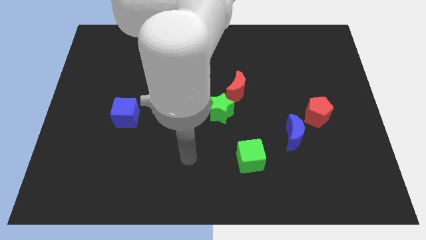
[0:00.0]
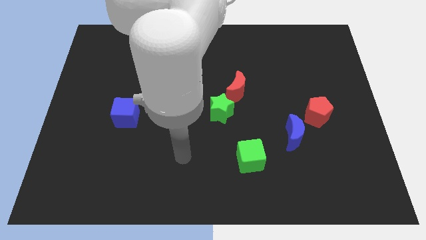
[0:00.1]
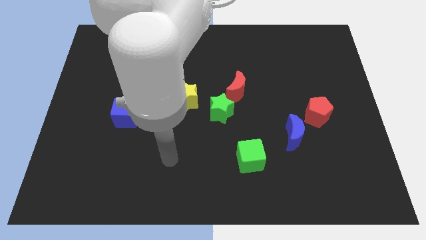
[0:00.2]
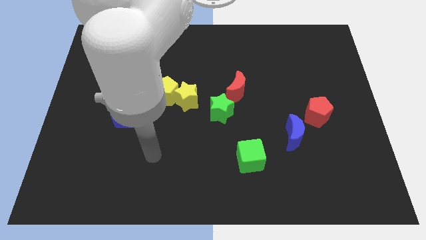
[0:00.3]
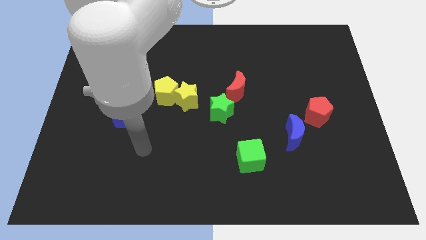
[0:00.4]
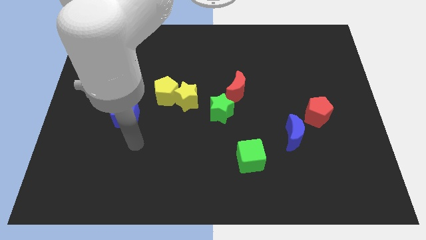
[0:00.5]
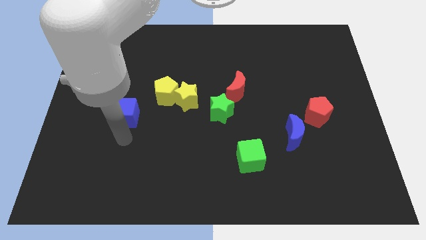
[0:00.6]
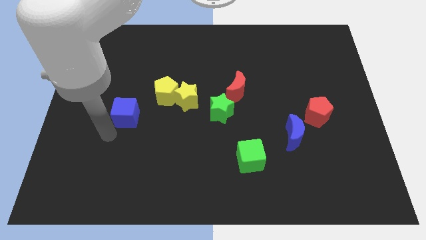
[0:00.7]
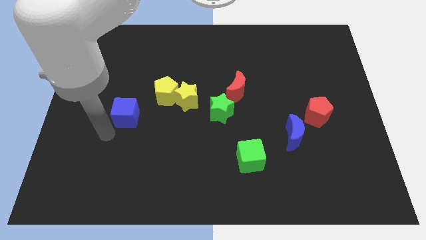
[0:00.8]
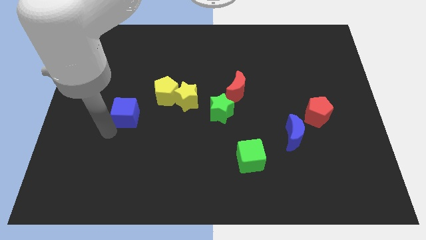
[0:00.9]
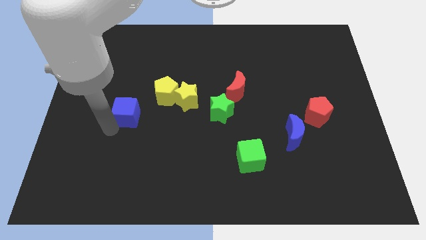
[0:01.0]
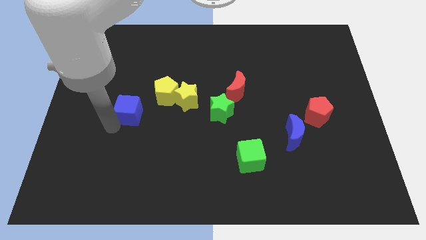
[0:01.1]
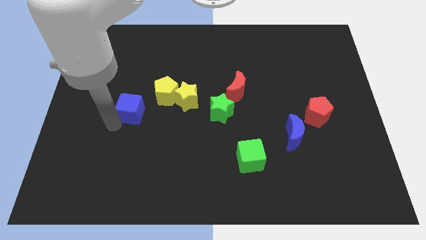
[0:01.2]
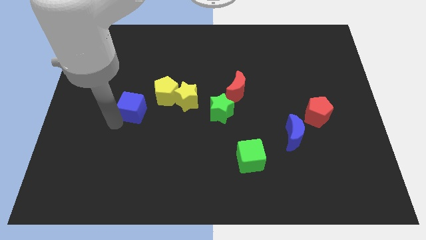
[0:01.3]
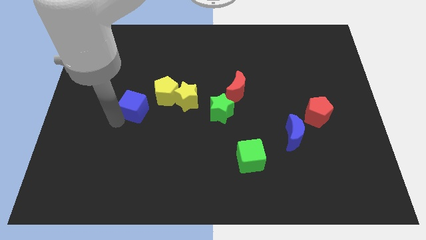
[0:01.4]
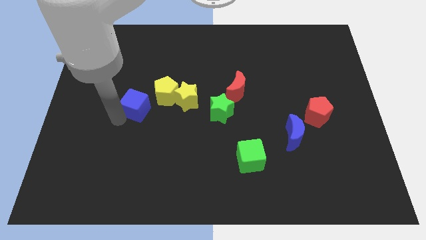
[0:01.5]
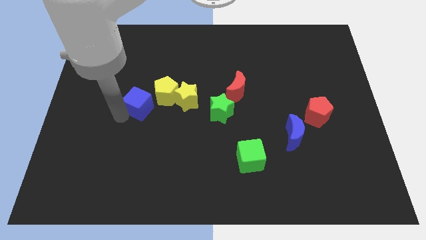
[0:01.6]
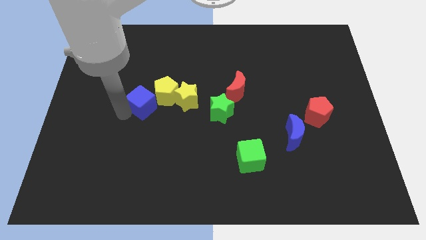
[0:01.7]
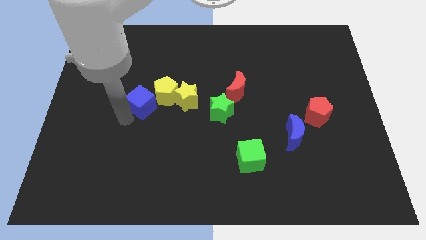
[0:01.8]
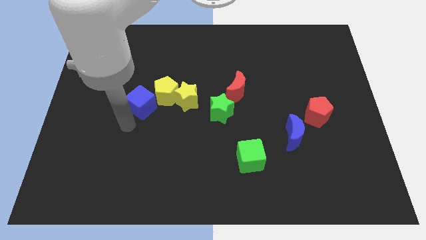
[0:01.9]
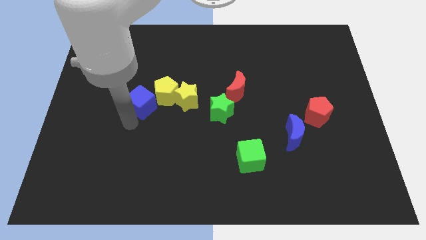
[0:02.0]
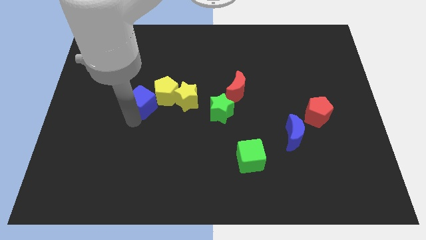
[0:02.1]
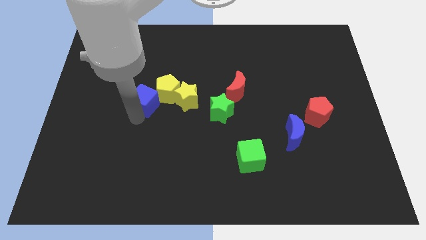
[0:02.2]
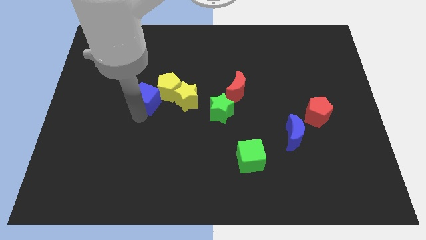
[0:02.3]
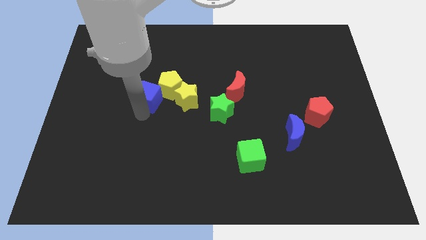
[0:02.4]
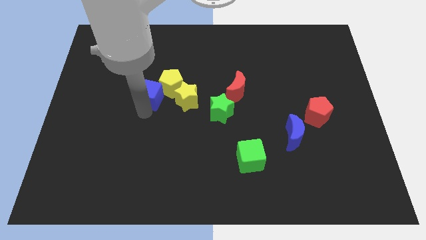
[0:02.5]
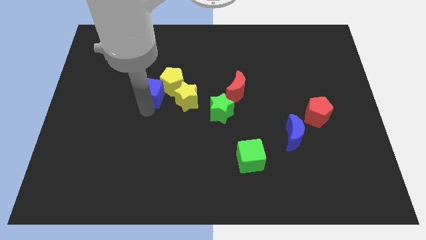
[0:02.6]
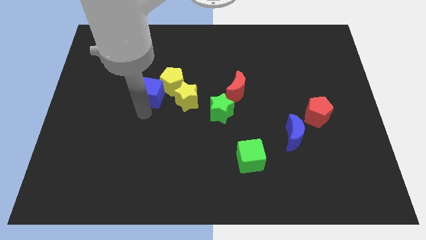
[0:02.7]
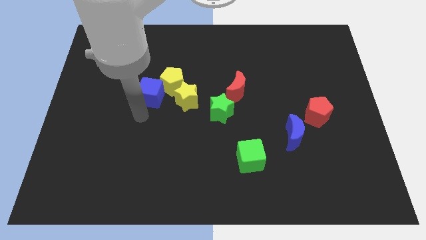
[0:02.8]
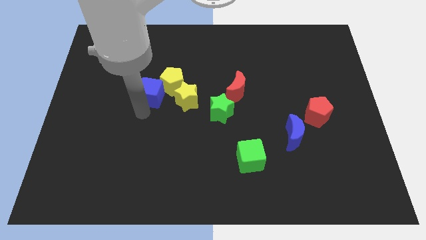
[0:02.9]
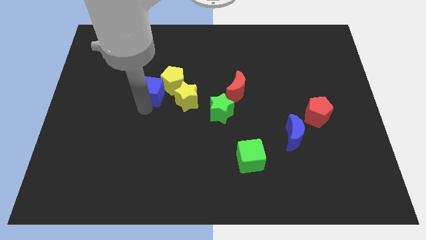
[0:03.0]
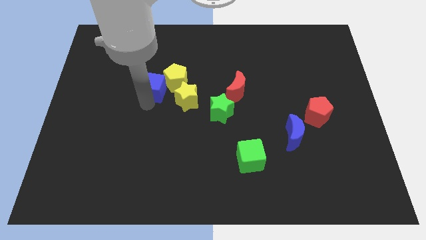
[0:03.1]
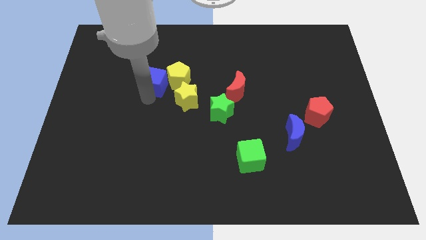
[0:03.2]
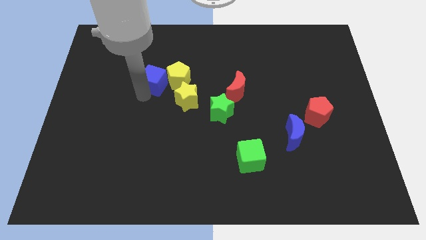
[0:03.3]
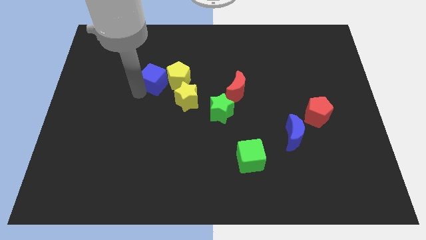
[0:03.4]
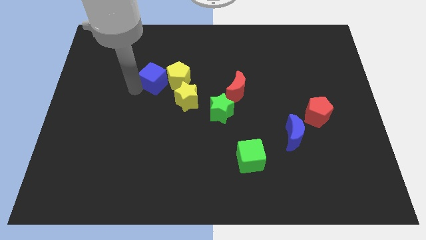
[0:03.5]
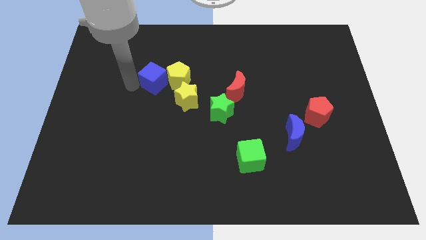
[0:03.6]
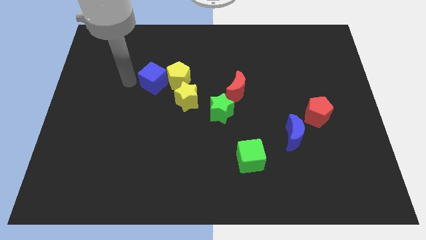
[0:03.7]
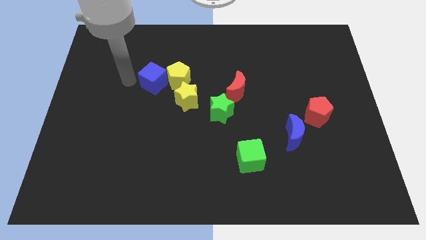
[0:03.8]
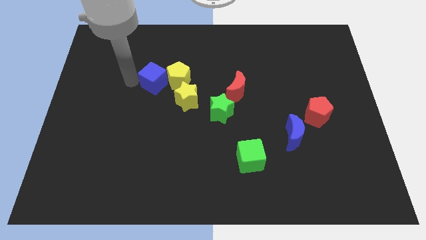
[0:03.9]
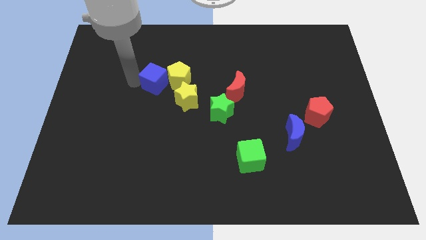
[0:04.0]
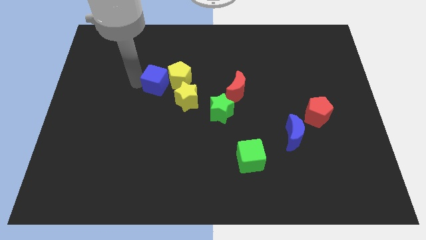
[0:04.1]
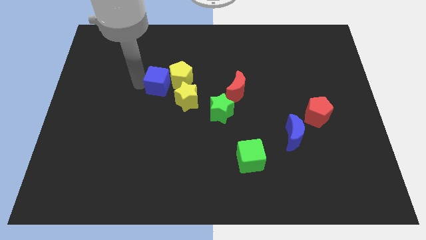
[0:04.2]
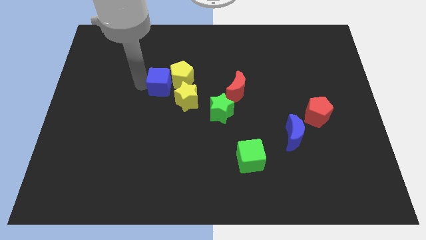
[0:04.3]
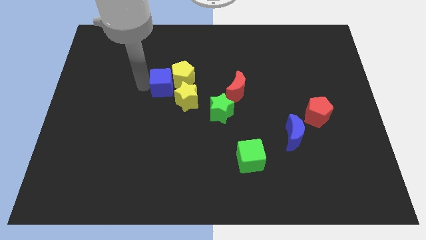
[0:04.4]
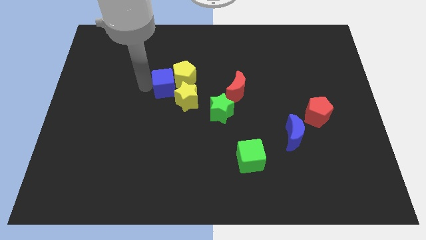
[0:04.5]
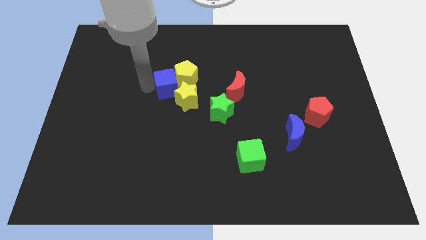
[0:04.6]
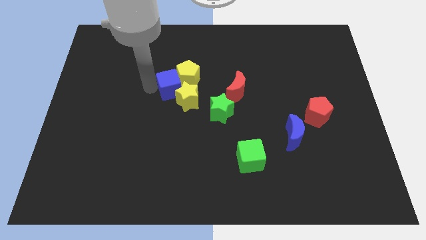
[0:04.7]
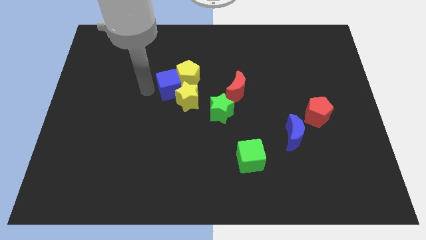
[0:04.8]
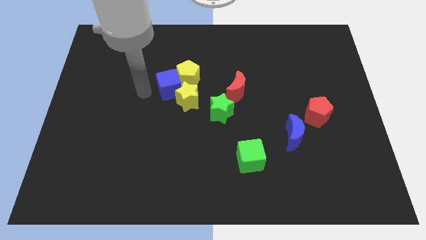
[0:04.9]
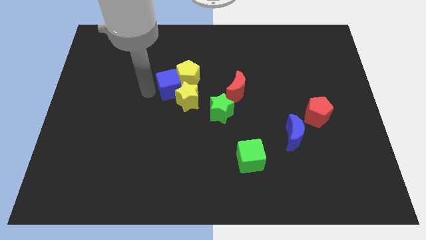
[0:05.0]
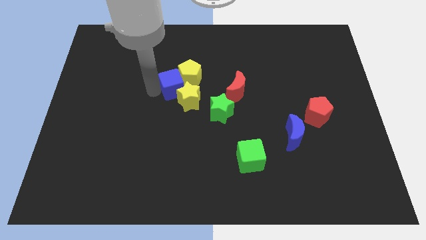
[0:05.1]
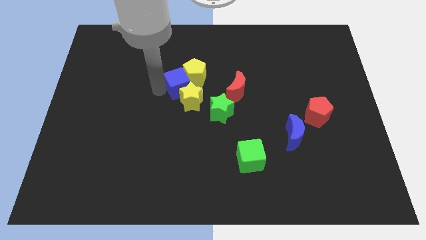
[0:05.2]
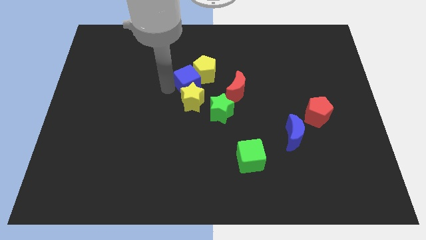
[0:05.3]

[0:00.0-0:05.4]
put the blue cube to the top right of the yellow star
